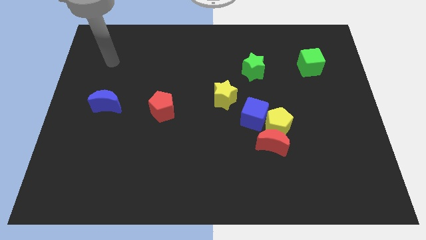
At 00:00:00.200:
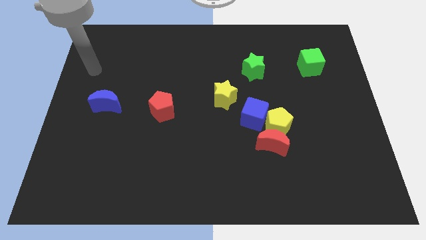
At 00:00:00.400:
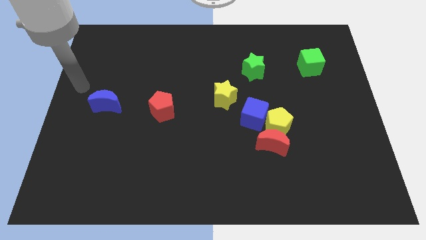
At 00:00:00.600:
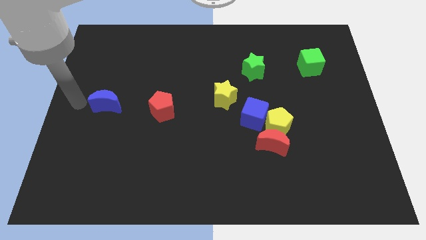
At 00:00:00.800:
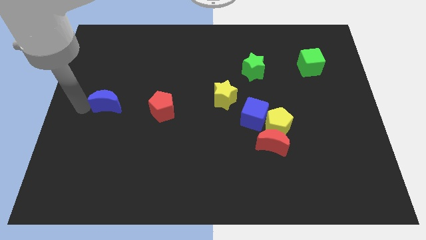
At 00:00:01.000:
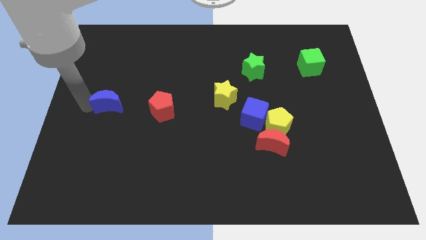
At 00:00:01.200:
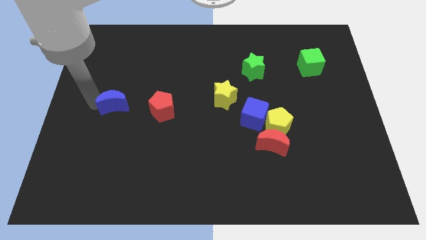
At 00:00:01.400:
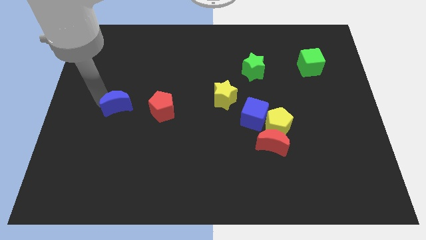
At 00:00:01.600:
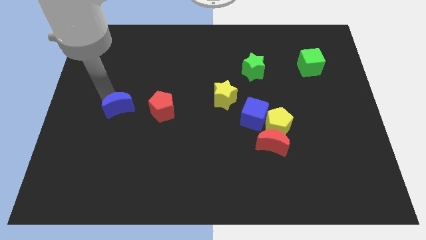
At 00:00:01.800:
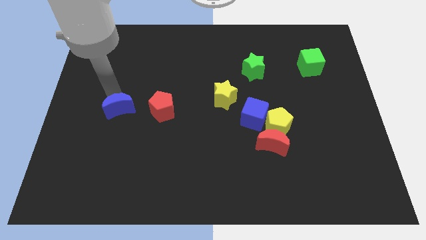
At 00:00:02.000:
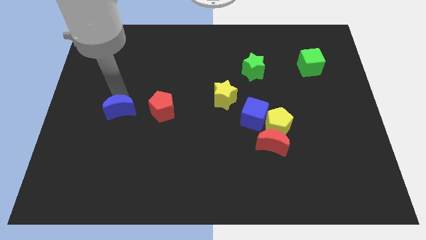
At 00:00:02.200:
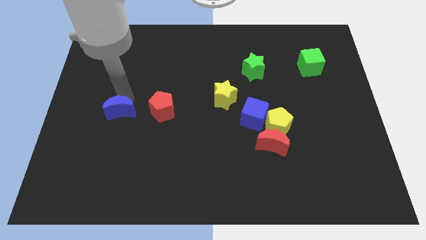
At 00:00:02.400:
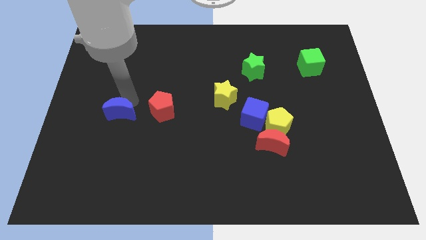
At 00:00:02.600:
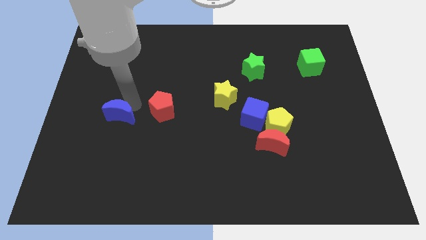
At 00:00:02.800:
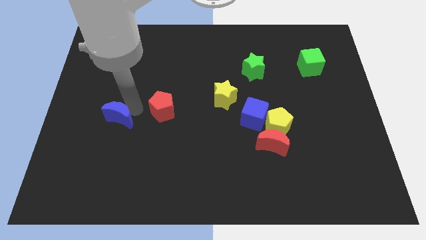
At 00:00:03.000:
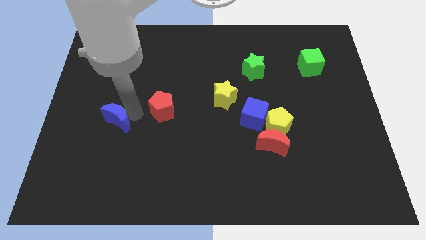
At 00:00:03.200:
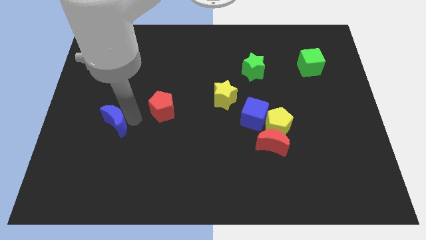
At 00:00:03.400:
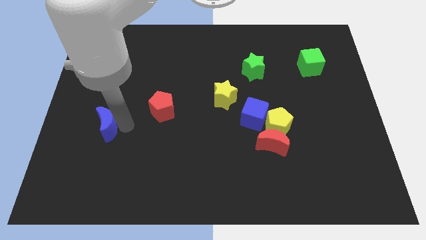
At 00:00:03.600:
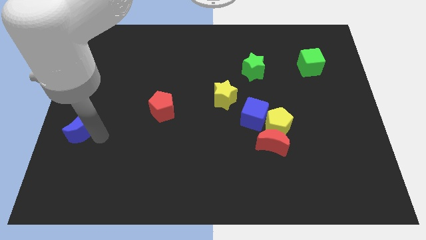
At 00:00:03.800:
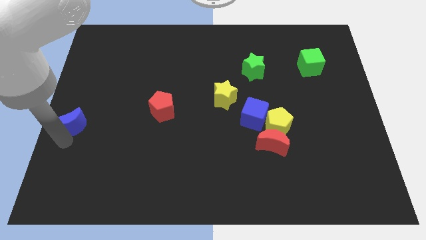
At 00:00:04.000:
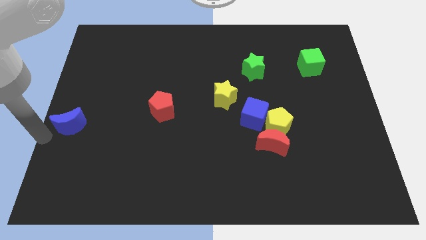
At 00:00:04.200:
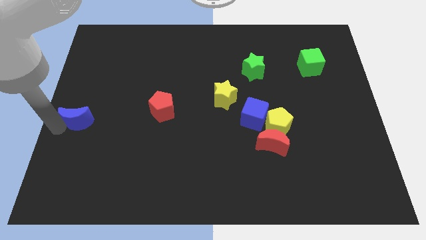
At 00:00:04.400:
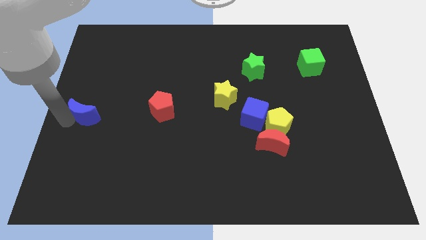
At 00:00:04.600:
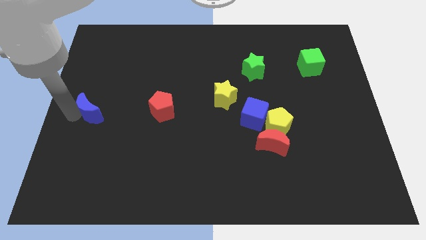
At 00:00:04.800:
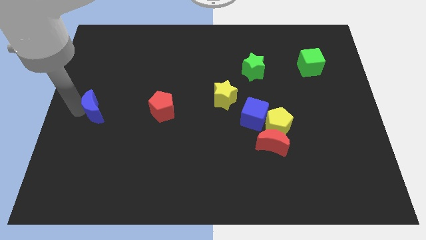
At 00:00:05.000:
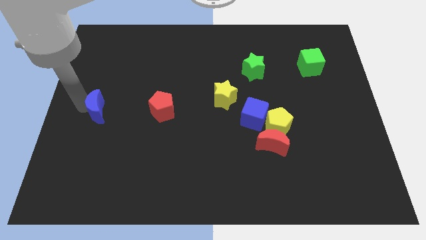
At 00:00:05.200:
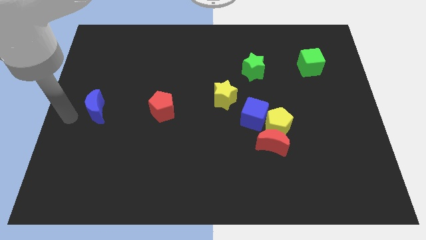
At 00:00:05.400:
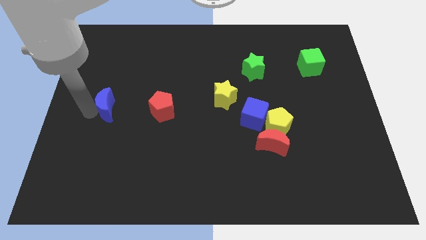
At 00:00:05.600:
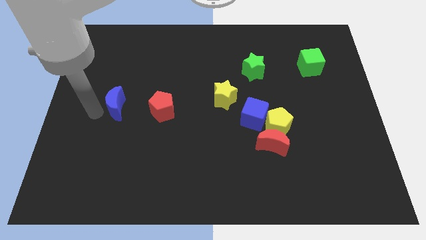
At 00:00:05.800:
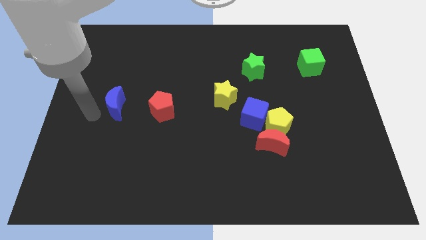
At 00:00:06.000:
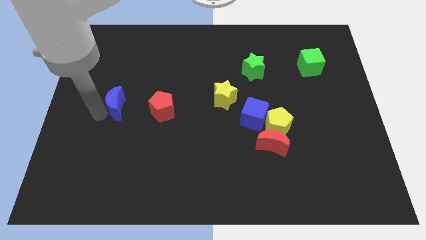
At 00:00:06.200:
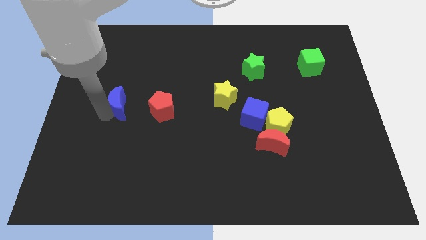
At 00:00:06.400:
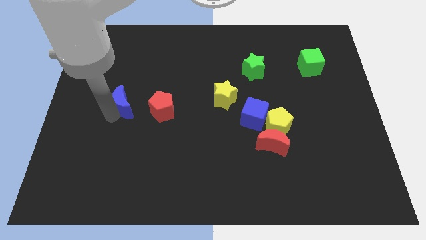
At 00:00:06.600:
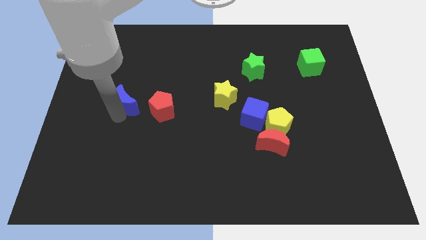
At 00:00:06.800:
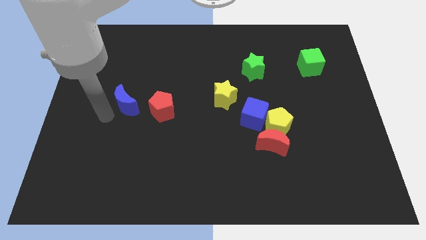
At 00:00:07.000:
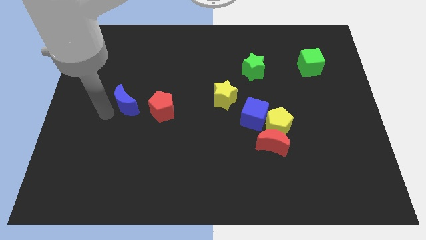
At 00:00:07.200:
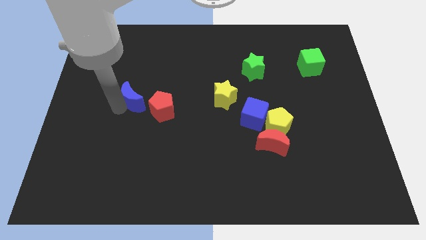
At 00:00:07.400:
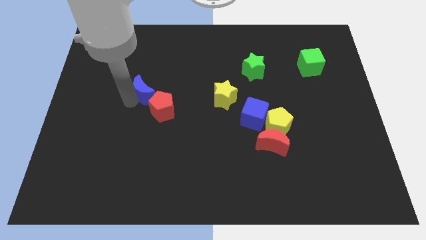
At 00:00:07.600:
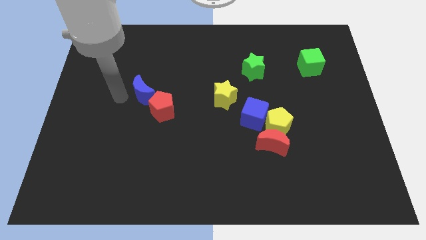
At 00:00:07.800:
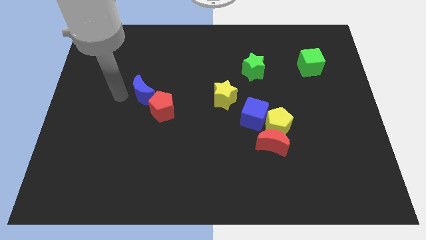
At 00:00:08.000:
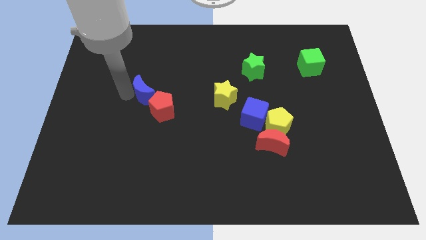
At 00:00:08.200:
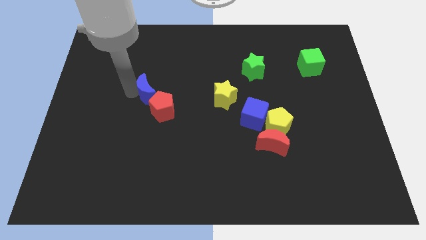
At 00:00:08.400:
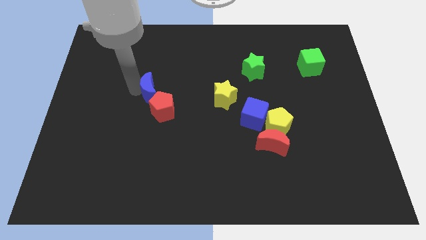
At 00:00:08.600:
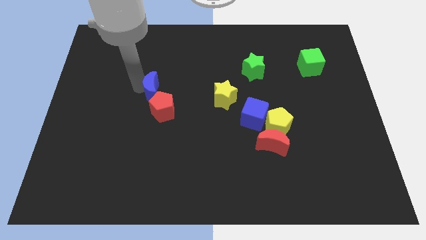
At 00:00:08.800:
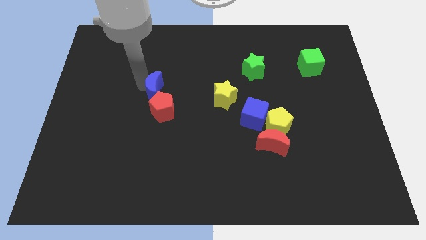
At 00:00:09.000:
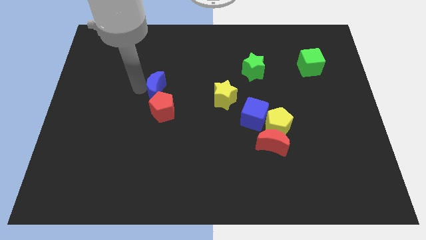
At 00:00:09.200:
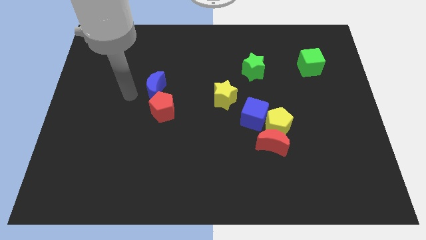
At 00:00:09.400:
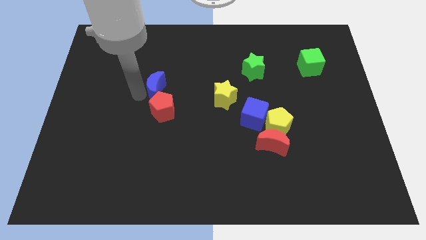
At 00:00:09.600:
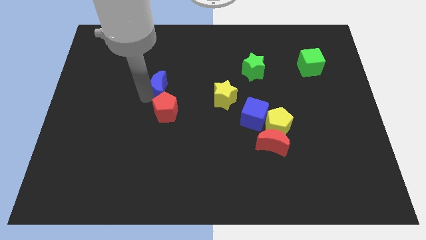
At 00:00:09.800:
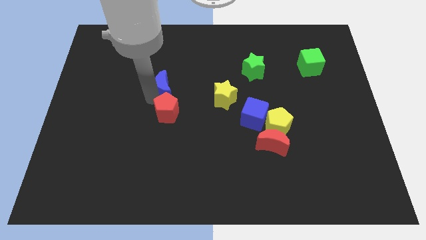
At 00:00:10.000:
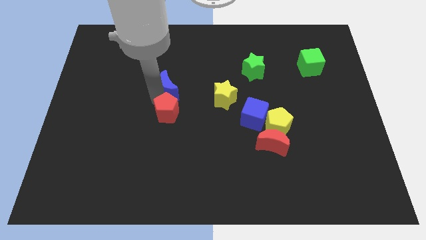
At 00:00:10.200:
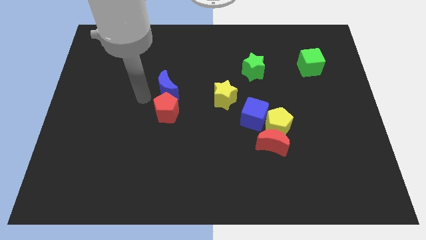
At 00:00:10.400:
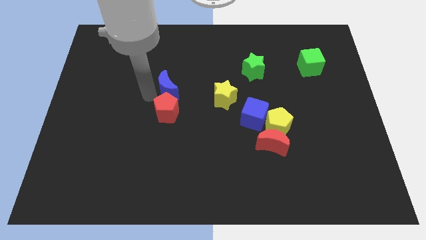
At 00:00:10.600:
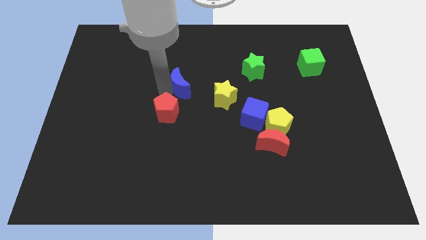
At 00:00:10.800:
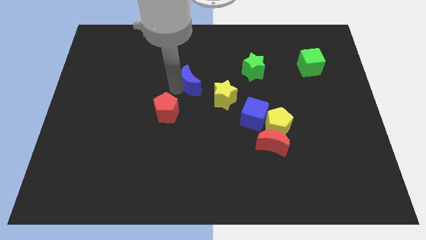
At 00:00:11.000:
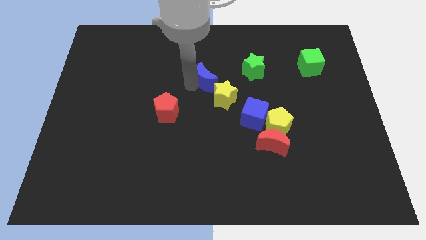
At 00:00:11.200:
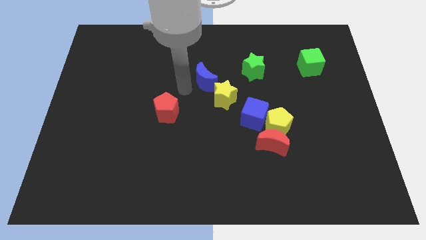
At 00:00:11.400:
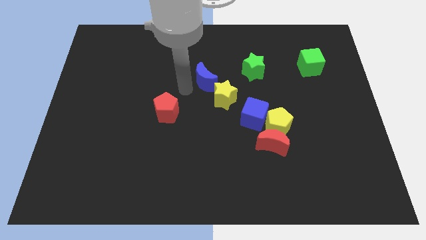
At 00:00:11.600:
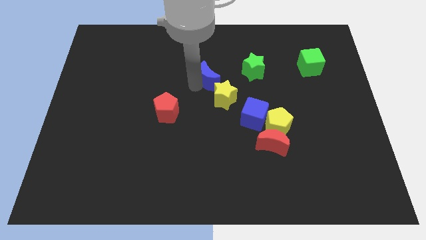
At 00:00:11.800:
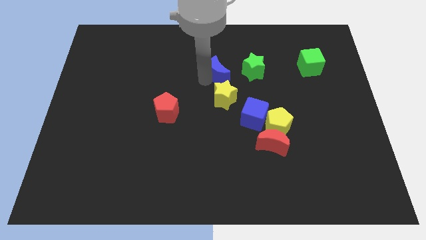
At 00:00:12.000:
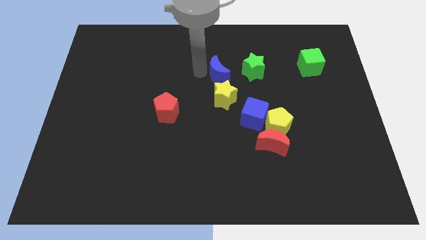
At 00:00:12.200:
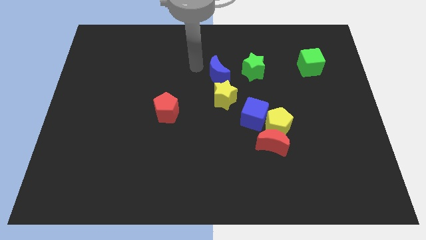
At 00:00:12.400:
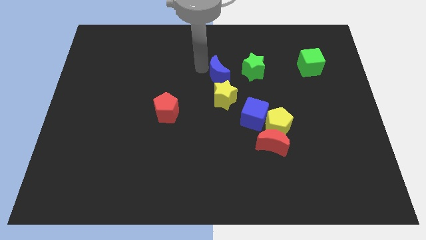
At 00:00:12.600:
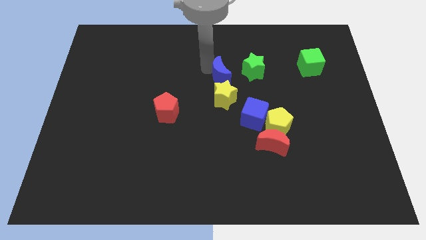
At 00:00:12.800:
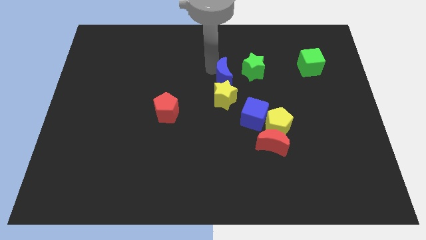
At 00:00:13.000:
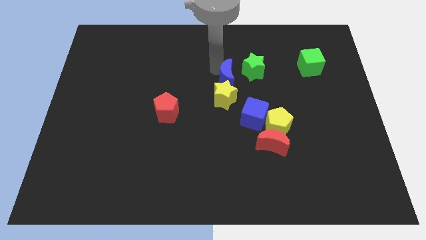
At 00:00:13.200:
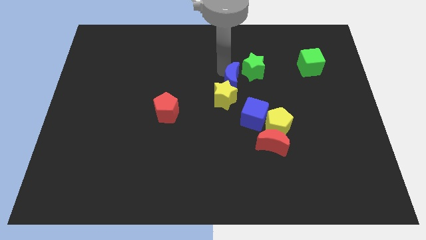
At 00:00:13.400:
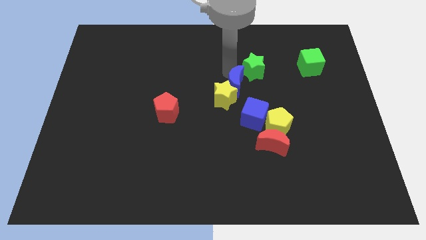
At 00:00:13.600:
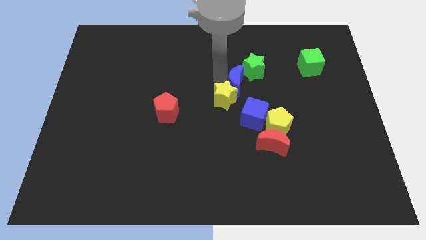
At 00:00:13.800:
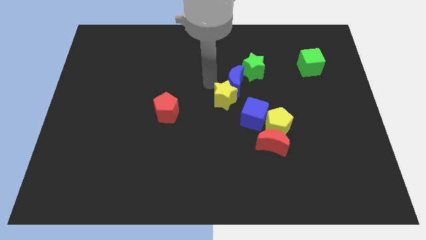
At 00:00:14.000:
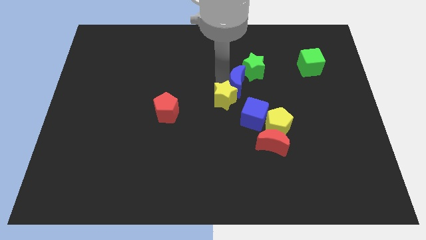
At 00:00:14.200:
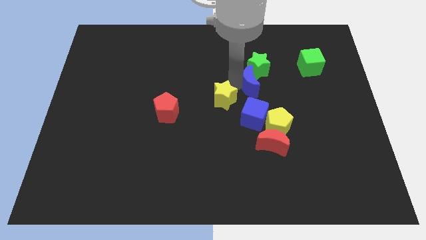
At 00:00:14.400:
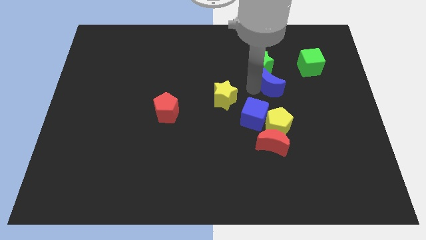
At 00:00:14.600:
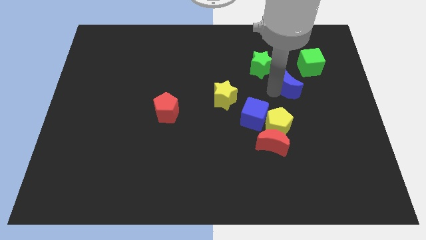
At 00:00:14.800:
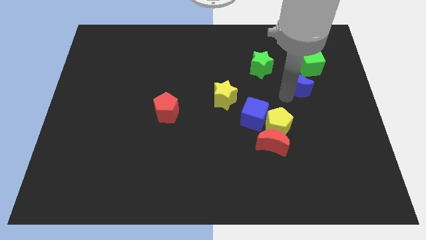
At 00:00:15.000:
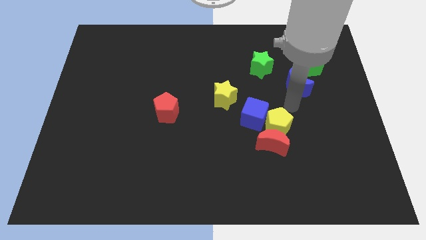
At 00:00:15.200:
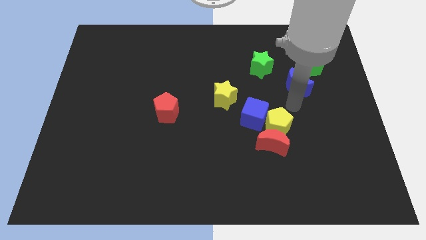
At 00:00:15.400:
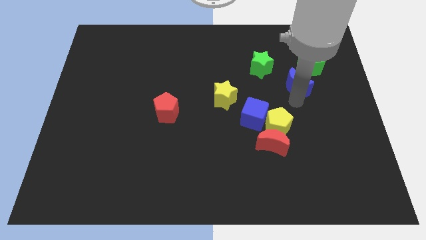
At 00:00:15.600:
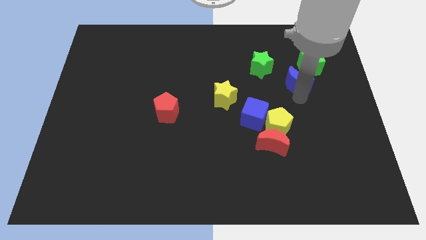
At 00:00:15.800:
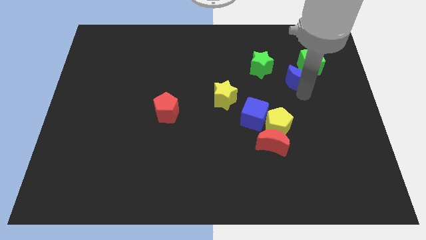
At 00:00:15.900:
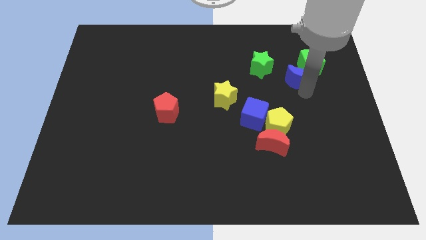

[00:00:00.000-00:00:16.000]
slide the blue moon to the right of the green star
